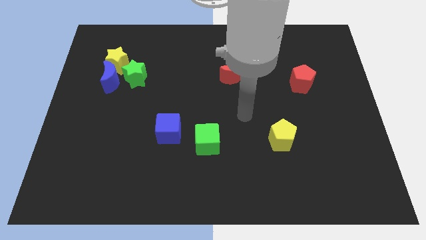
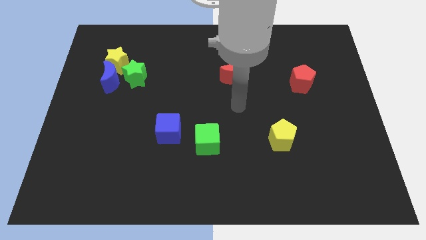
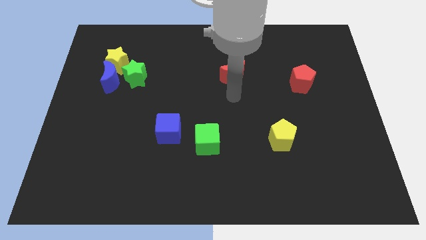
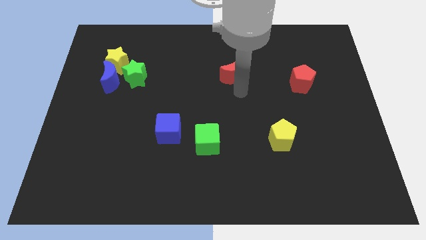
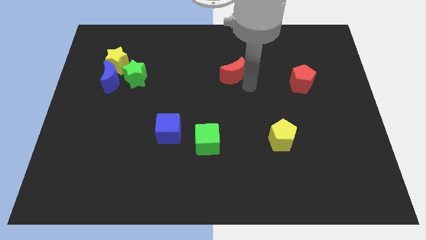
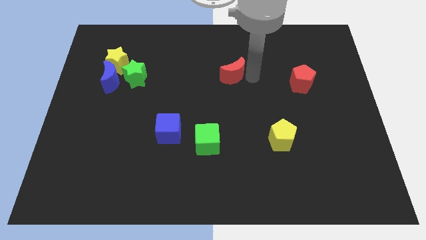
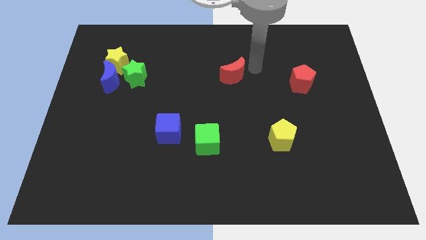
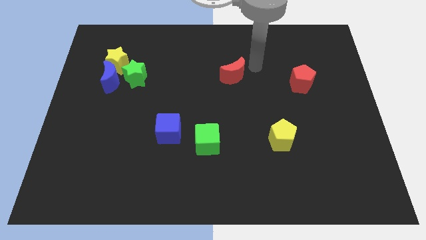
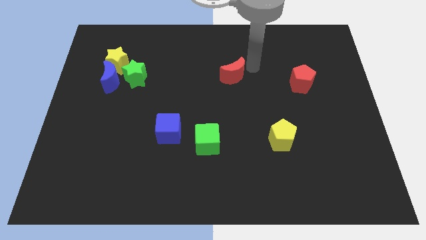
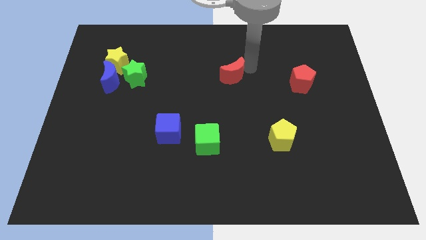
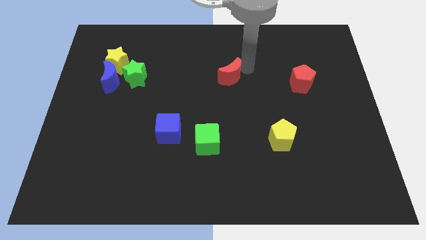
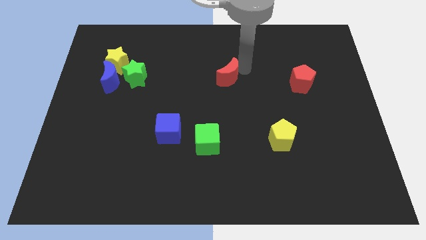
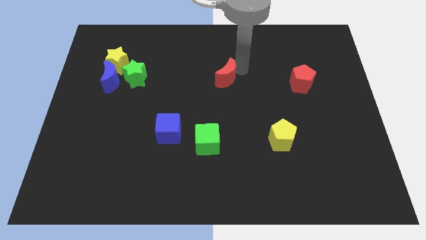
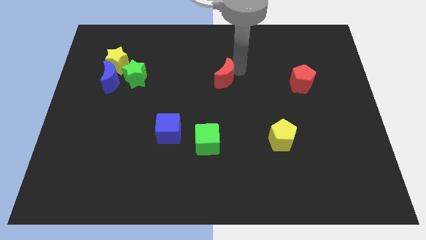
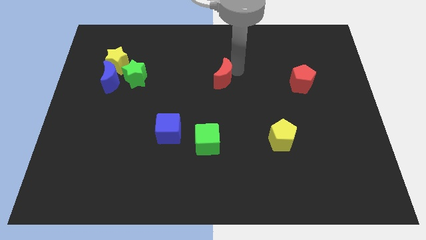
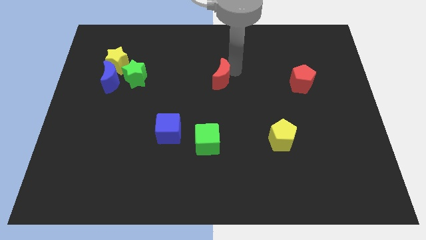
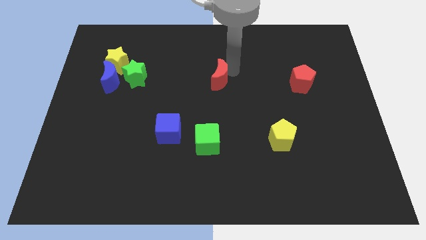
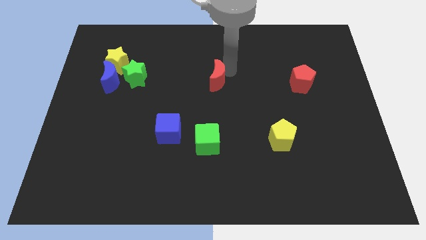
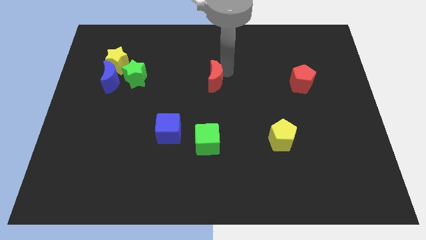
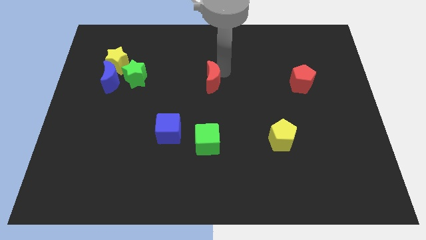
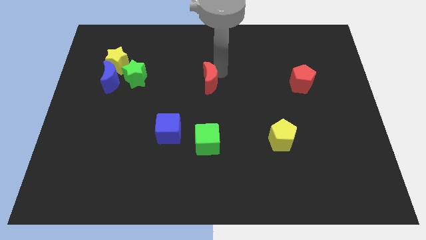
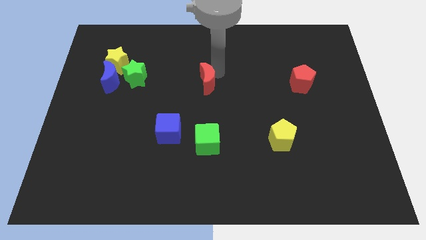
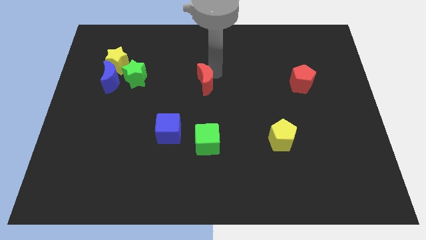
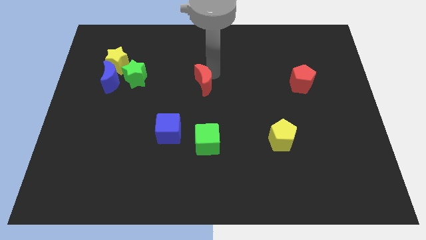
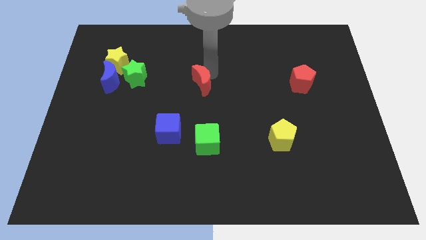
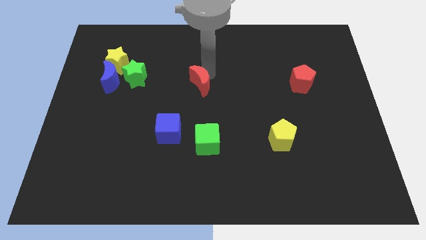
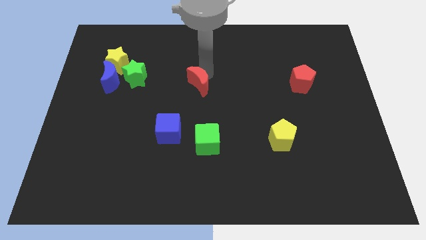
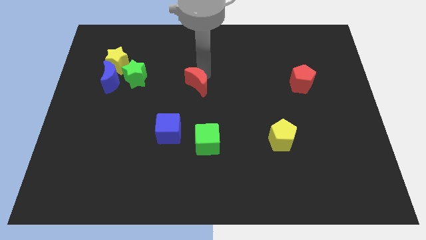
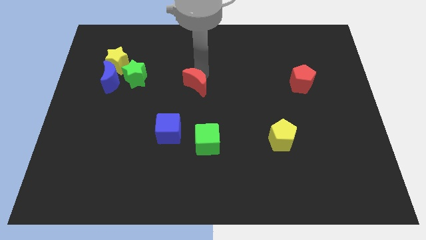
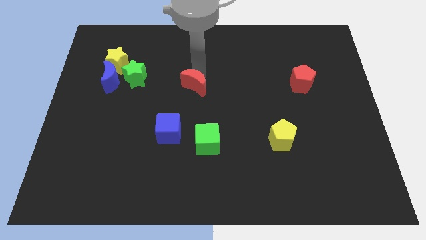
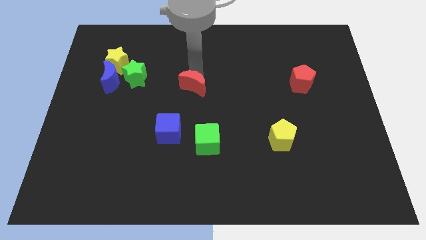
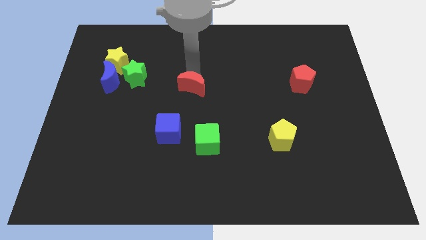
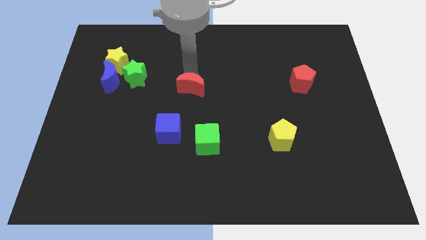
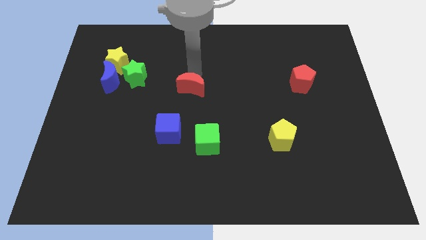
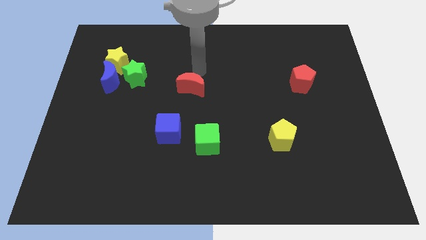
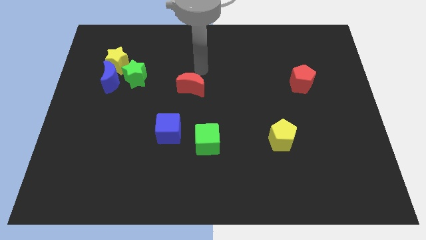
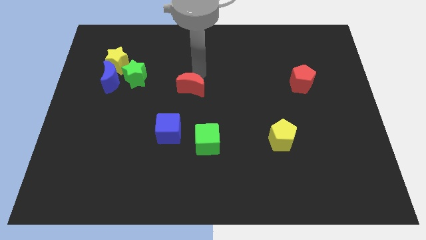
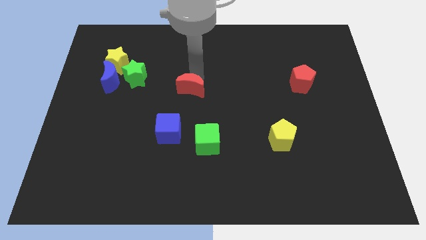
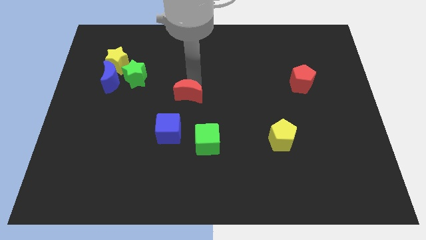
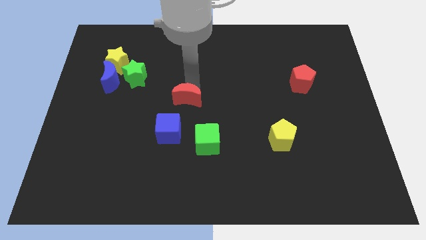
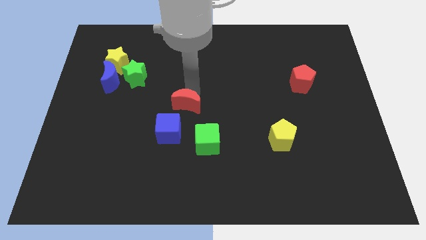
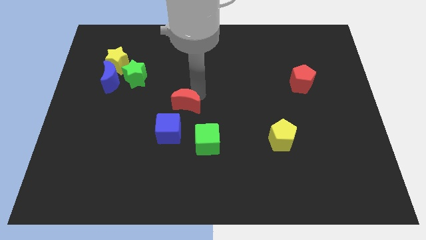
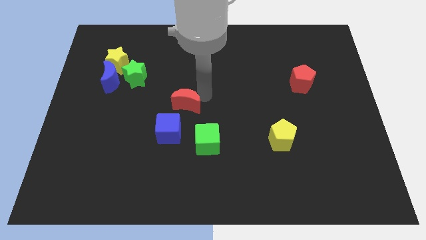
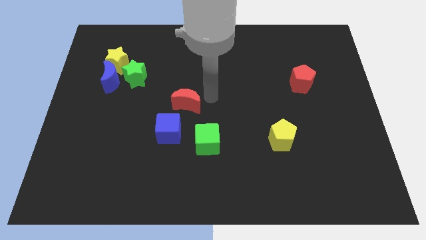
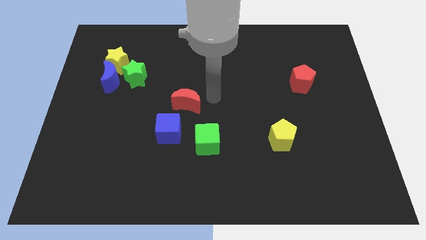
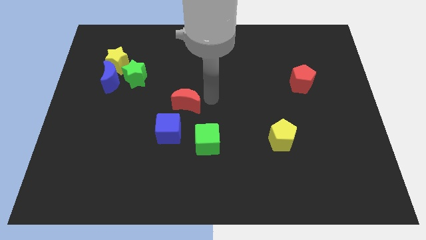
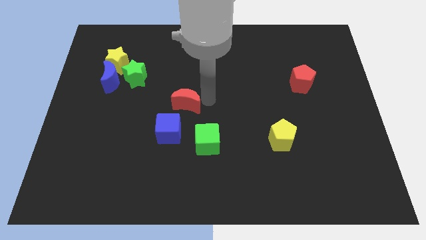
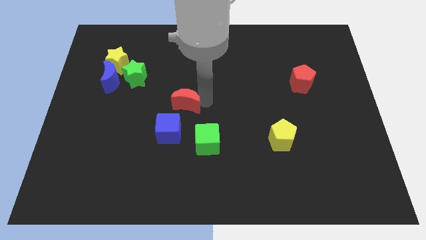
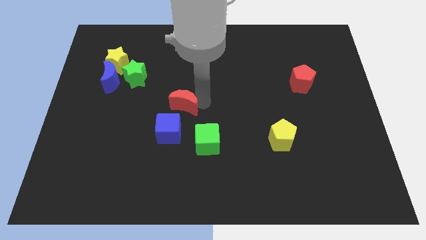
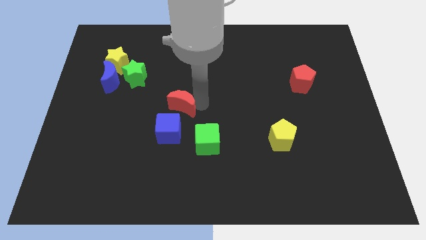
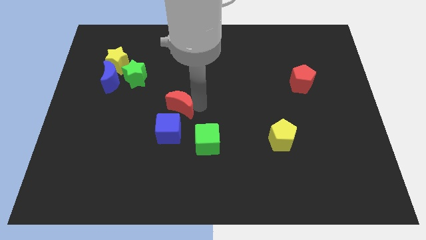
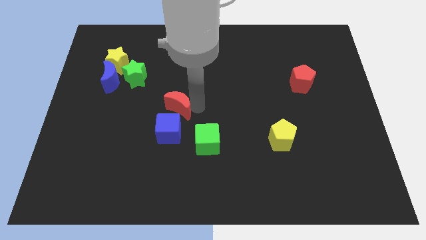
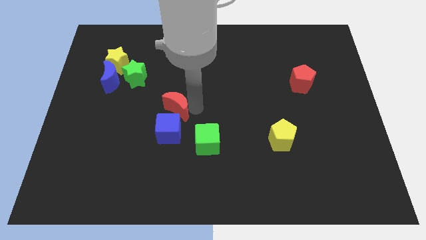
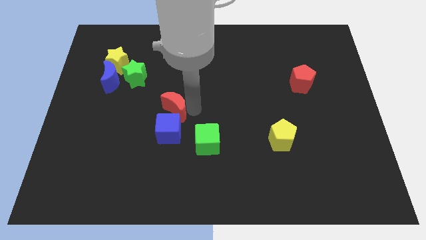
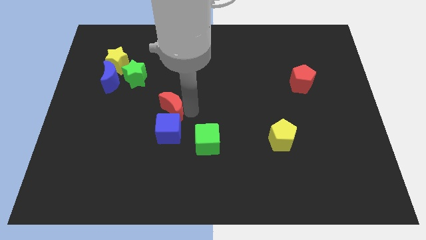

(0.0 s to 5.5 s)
put the red moon to the top left of the blue cube

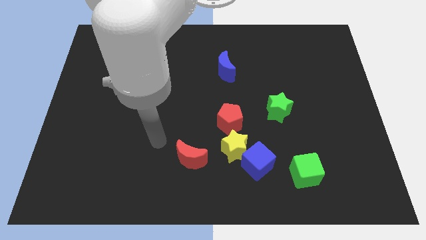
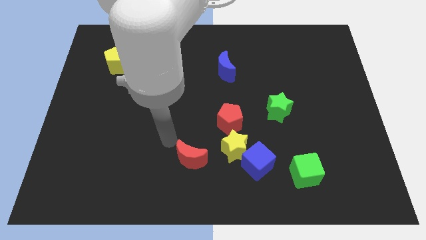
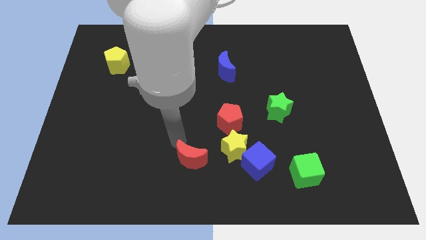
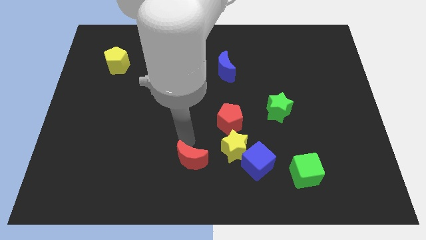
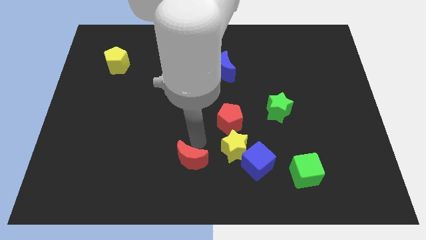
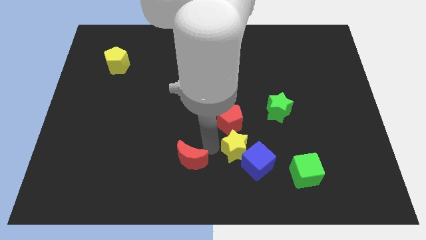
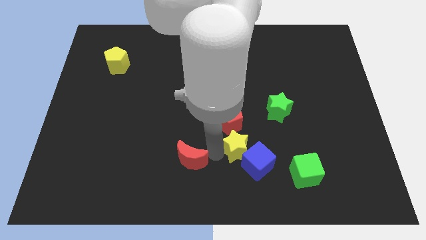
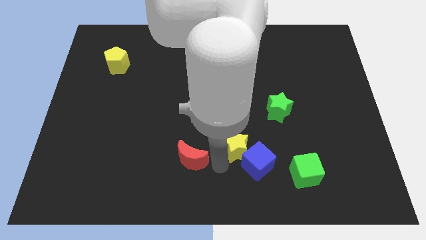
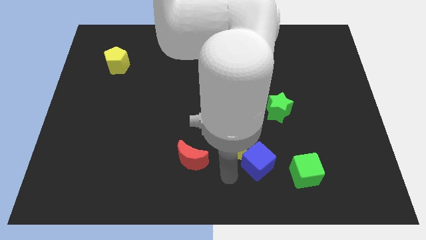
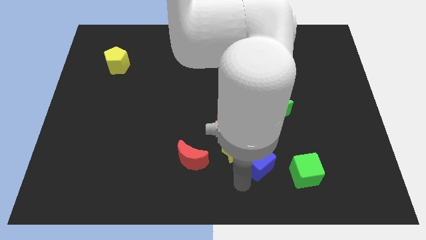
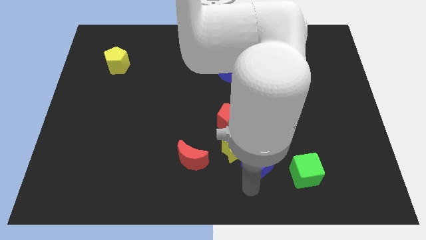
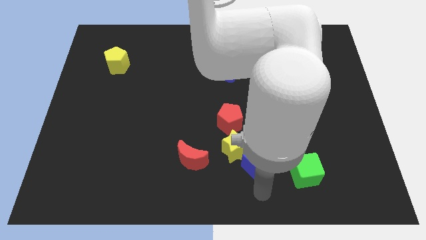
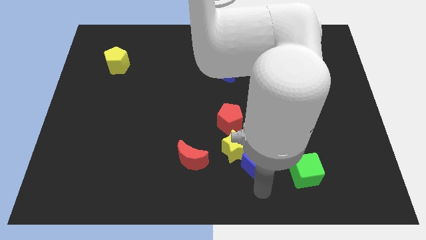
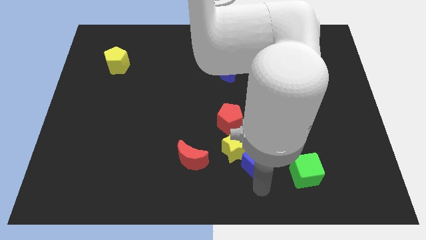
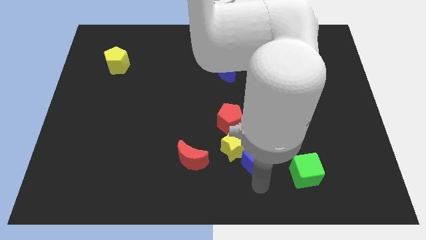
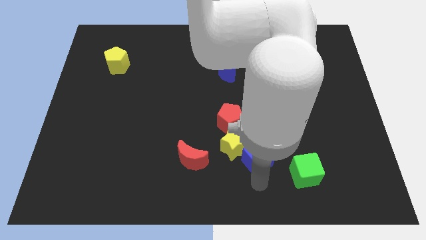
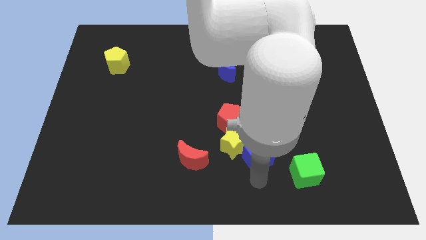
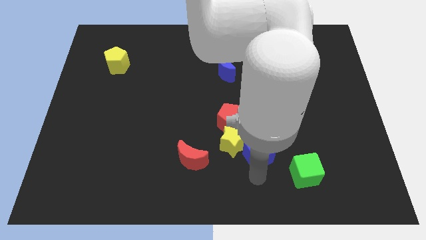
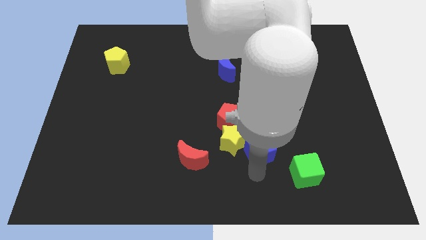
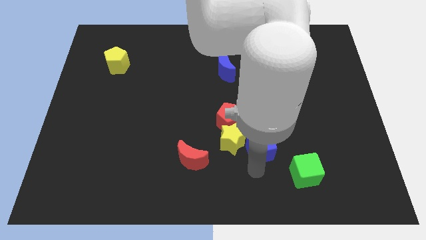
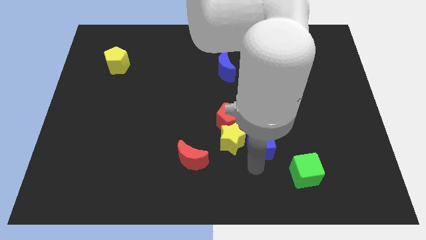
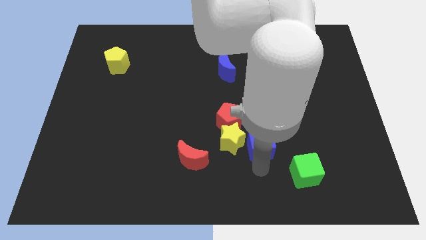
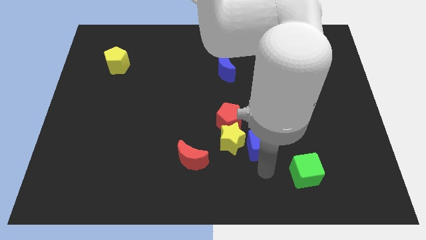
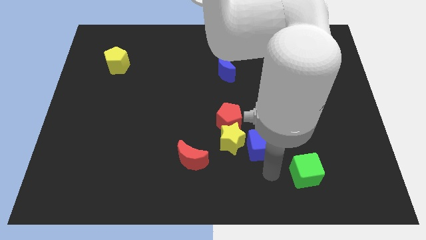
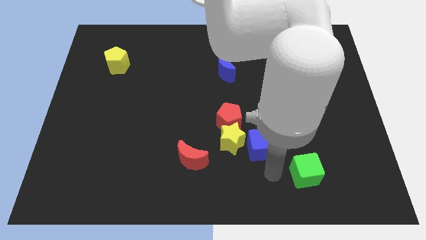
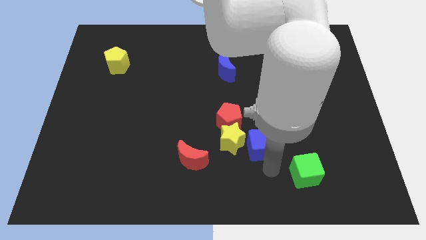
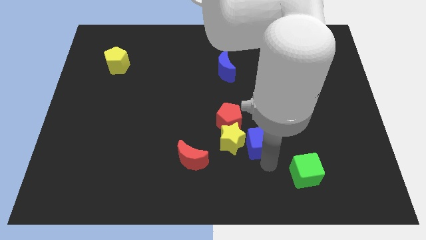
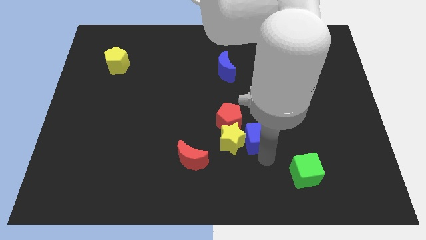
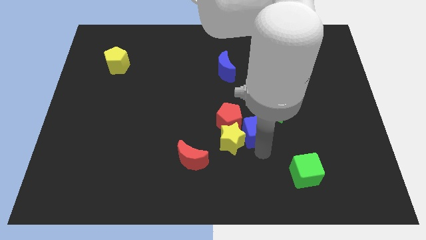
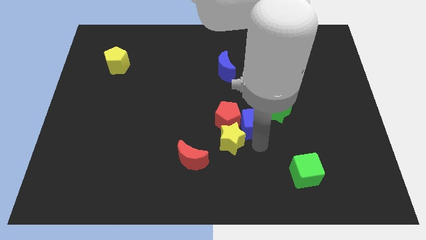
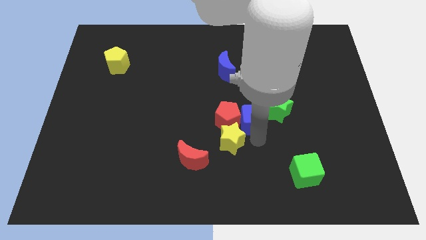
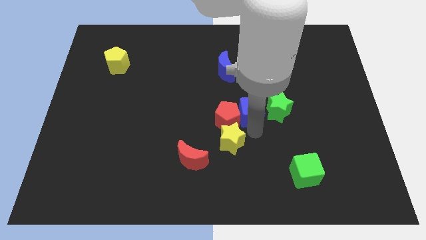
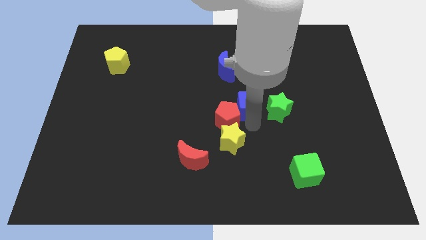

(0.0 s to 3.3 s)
push the blue cube diagonally up and to the left of the green star
